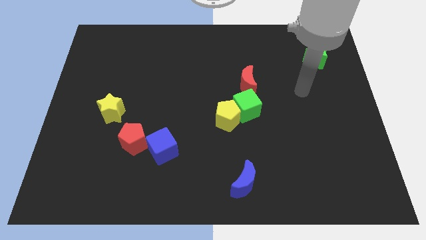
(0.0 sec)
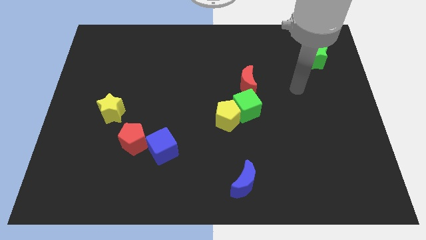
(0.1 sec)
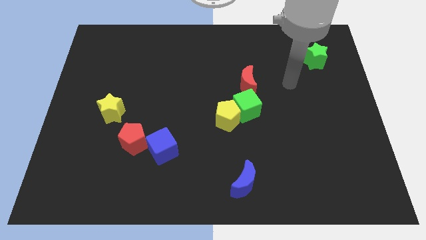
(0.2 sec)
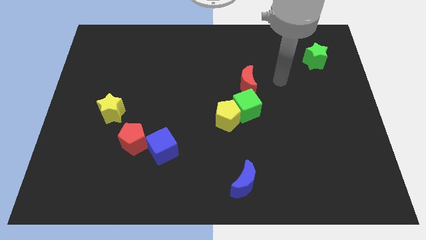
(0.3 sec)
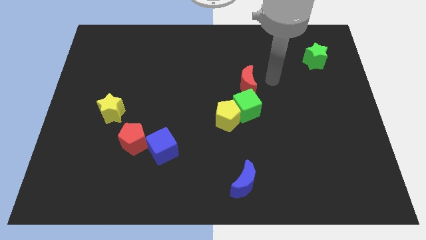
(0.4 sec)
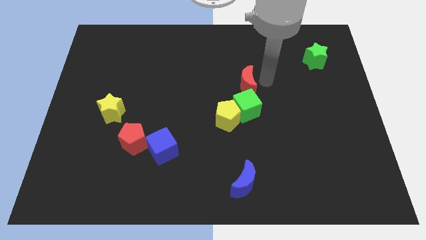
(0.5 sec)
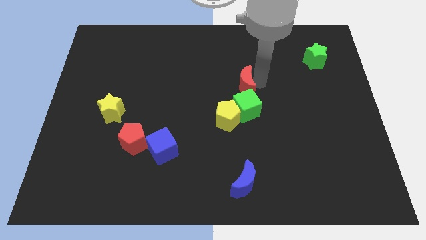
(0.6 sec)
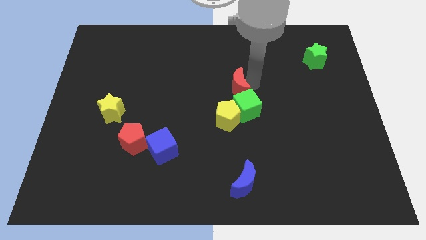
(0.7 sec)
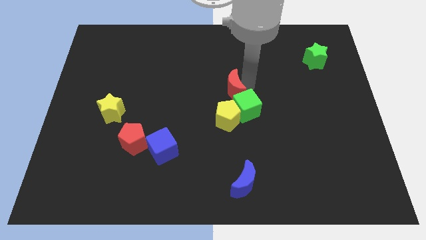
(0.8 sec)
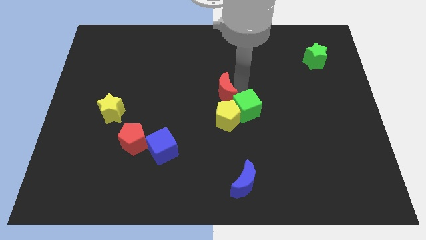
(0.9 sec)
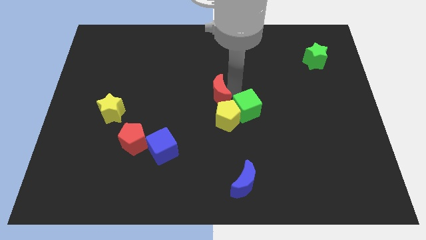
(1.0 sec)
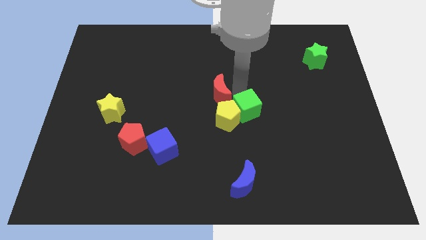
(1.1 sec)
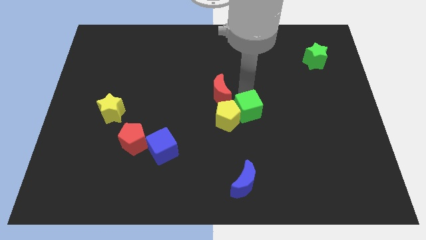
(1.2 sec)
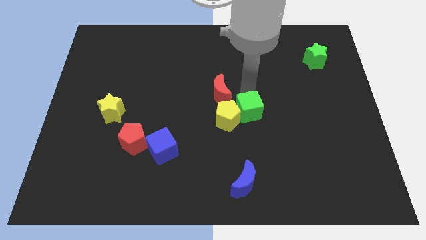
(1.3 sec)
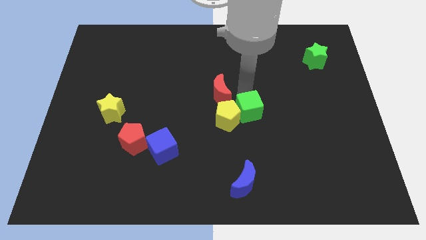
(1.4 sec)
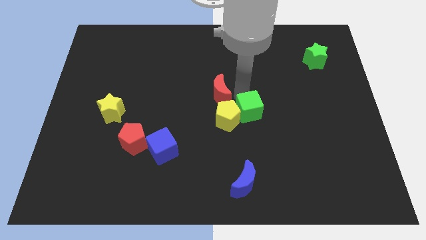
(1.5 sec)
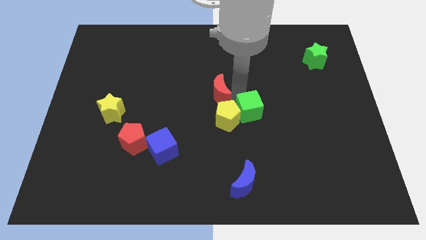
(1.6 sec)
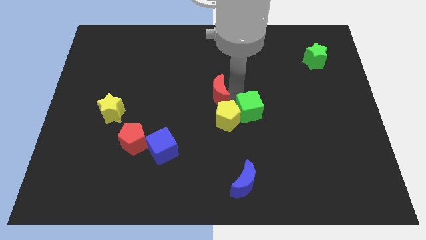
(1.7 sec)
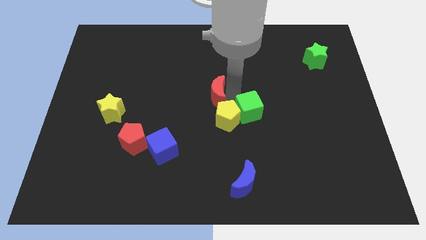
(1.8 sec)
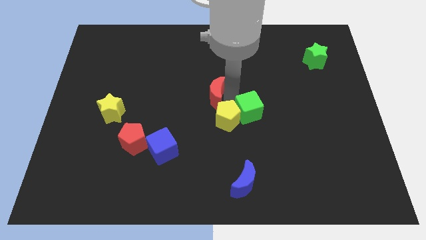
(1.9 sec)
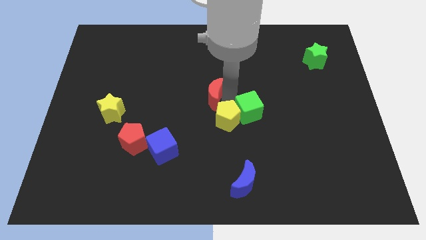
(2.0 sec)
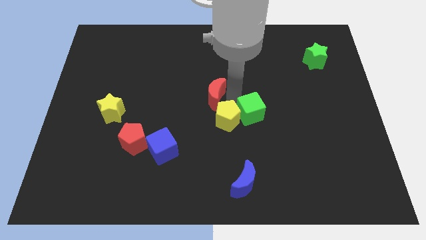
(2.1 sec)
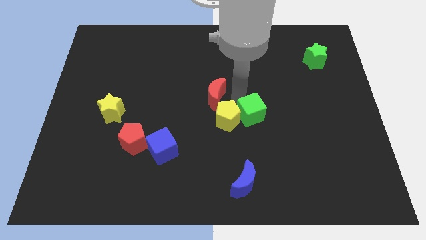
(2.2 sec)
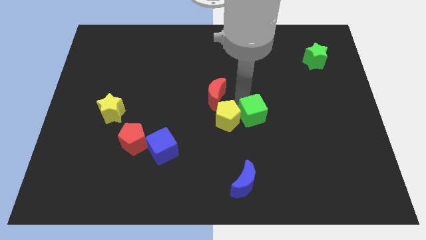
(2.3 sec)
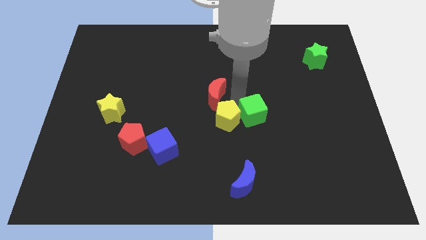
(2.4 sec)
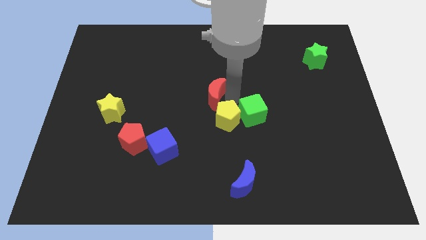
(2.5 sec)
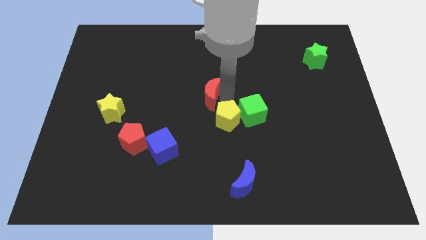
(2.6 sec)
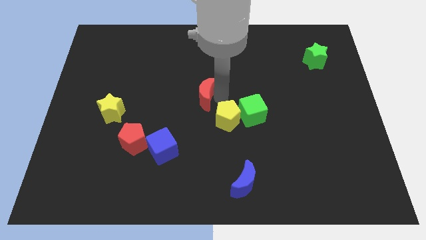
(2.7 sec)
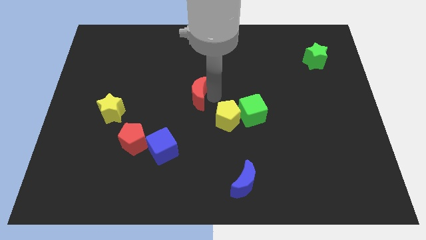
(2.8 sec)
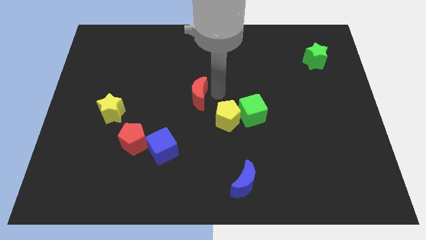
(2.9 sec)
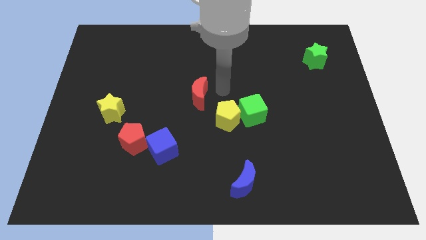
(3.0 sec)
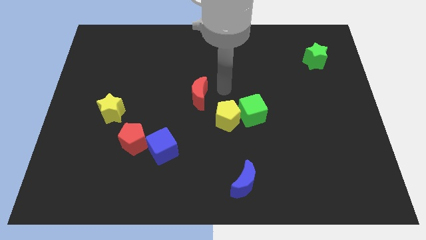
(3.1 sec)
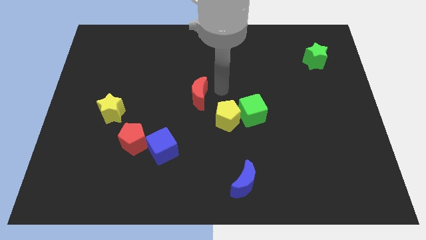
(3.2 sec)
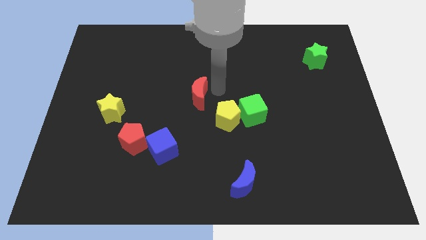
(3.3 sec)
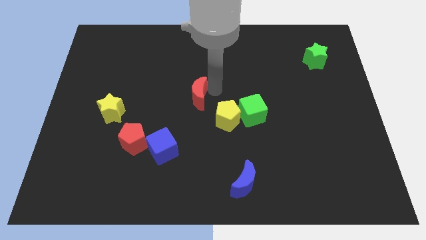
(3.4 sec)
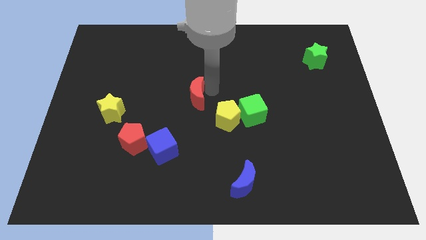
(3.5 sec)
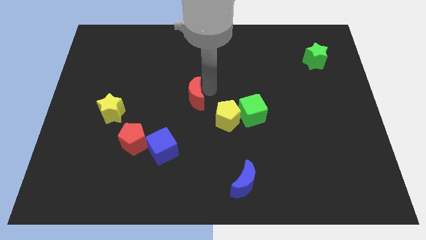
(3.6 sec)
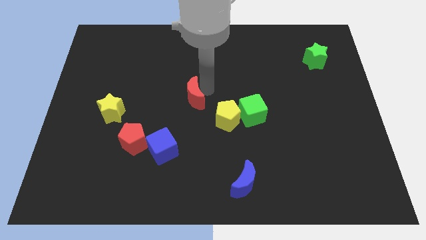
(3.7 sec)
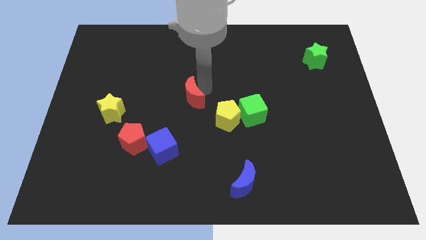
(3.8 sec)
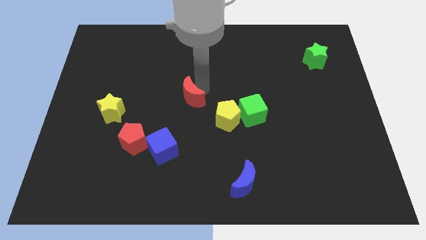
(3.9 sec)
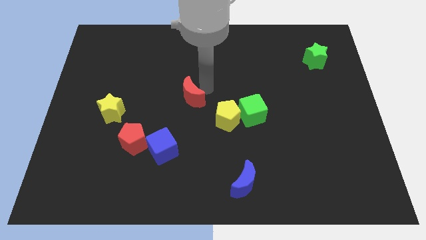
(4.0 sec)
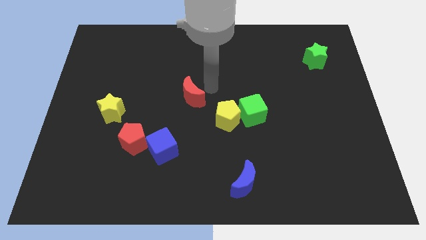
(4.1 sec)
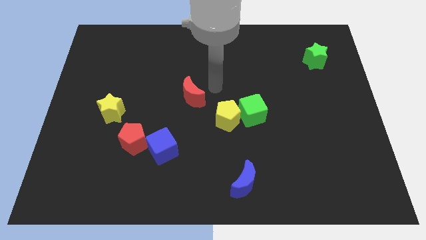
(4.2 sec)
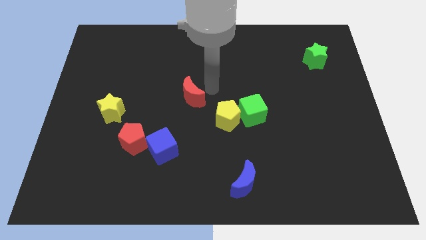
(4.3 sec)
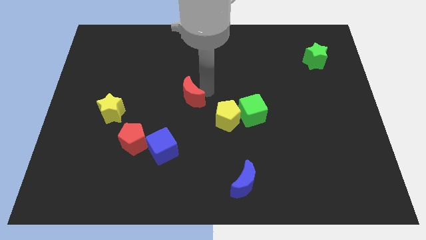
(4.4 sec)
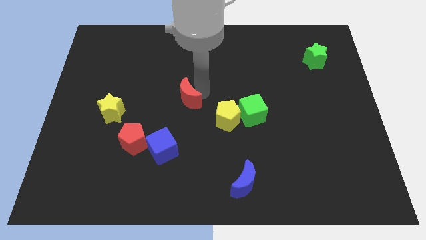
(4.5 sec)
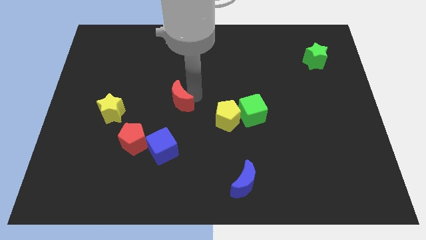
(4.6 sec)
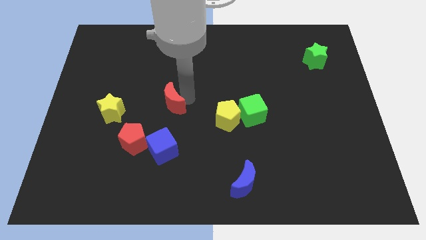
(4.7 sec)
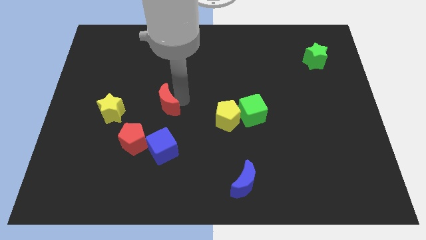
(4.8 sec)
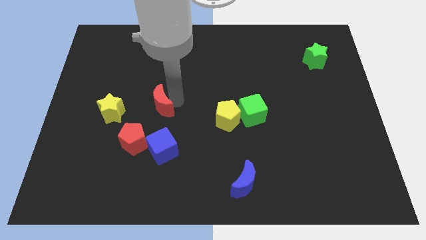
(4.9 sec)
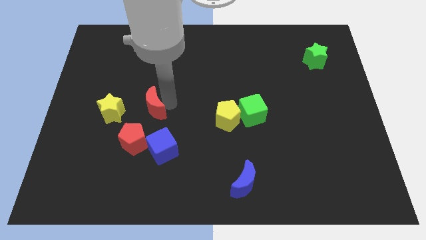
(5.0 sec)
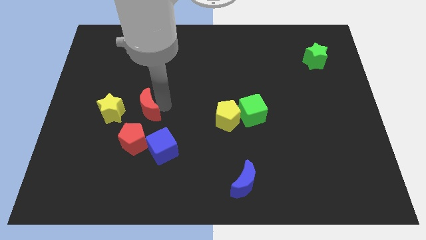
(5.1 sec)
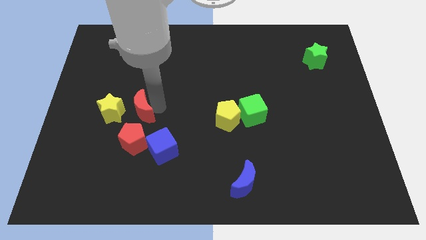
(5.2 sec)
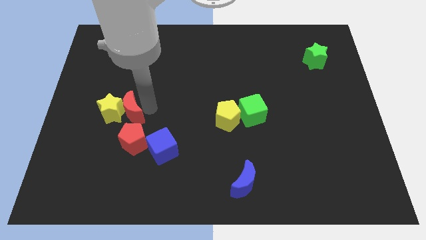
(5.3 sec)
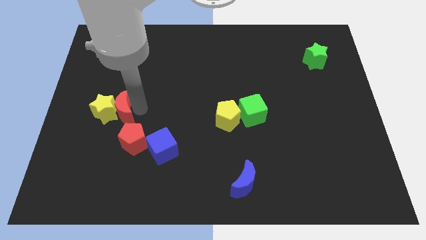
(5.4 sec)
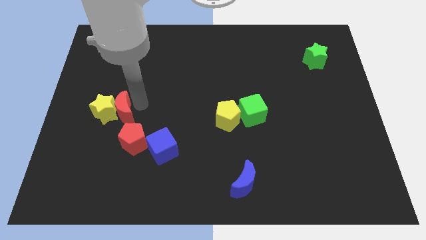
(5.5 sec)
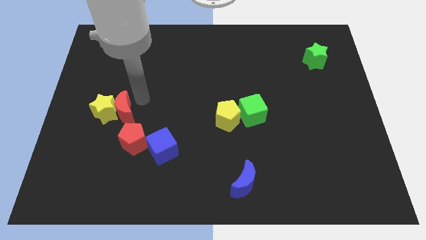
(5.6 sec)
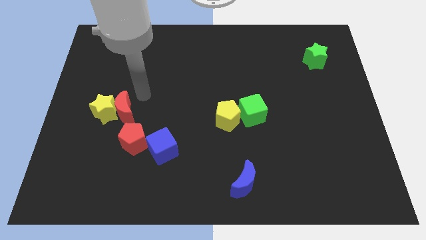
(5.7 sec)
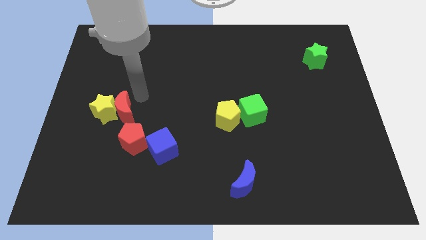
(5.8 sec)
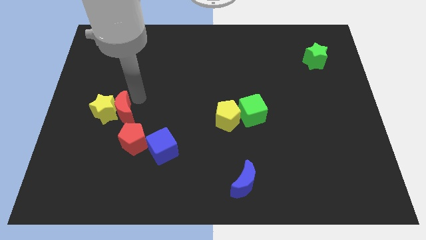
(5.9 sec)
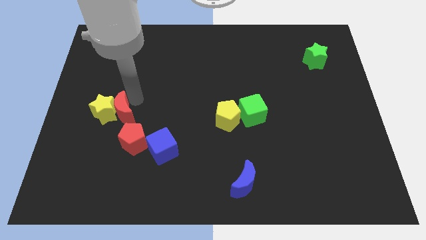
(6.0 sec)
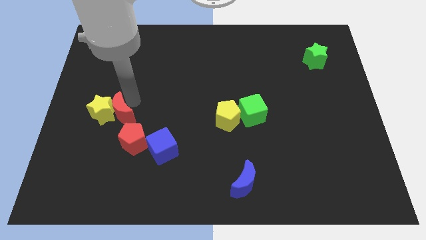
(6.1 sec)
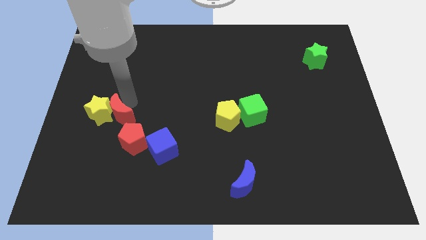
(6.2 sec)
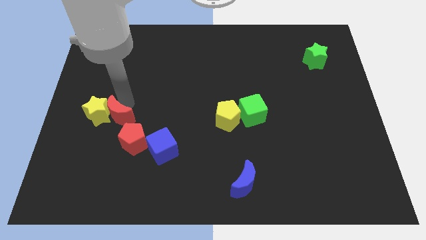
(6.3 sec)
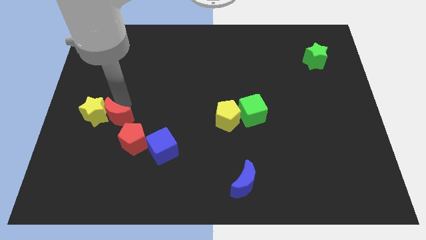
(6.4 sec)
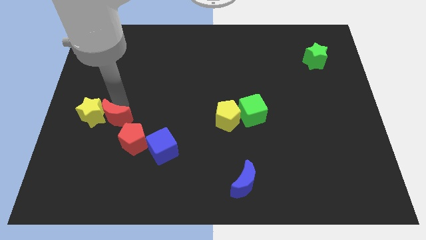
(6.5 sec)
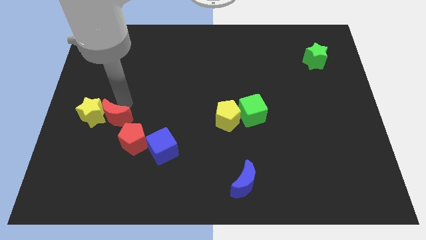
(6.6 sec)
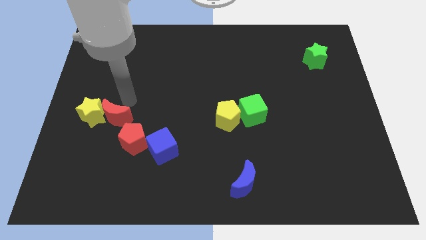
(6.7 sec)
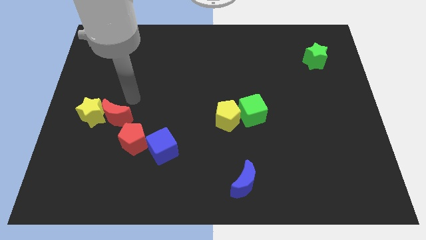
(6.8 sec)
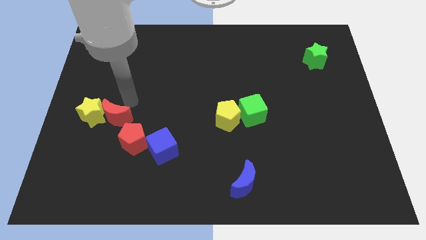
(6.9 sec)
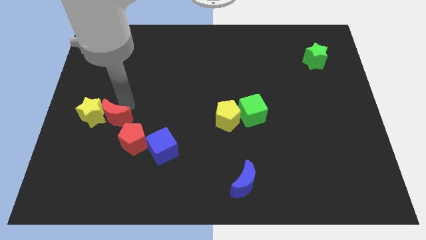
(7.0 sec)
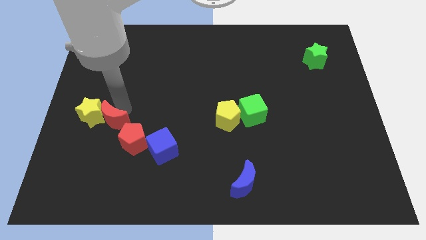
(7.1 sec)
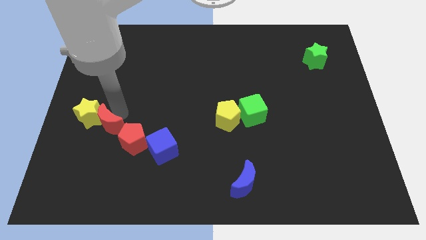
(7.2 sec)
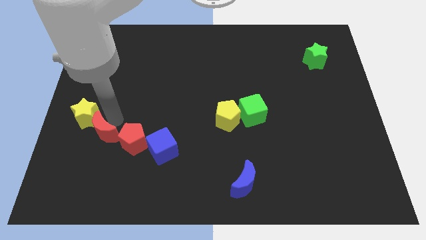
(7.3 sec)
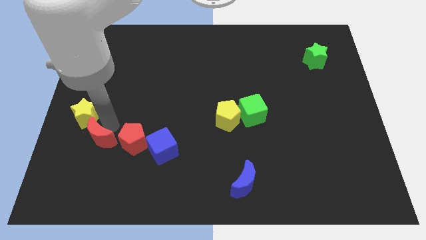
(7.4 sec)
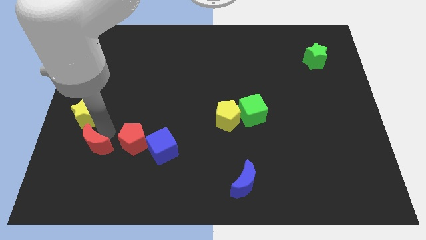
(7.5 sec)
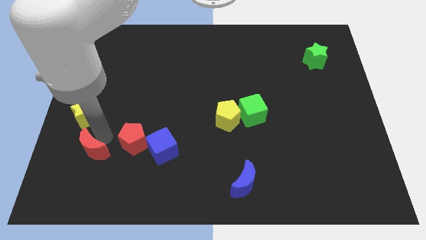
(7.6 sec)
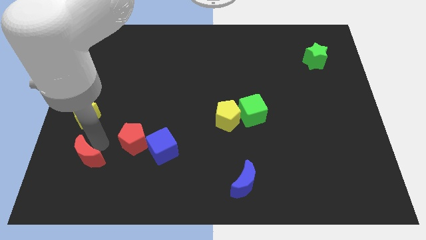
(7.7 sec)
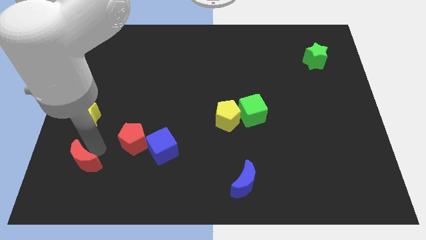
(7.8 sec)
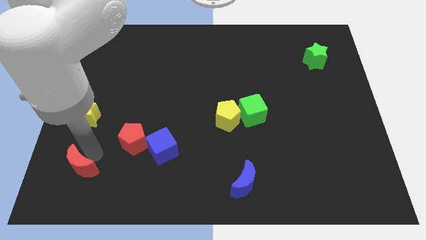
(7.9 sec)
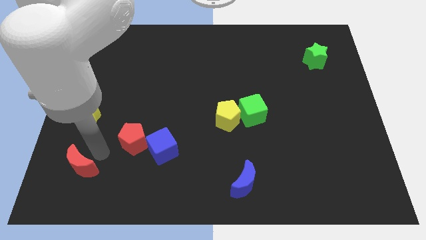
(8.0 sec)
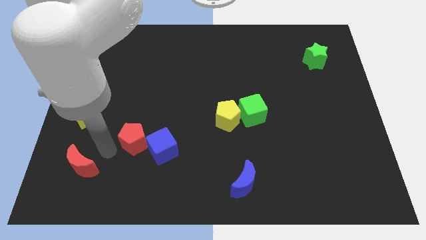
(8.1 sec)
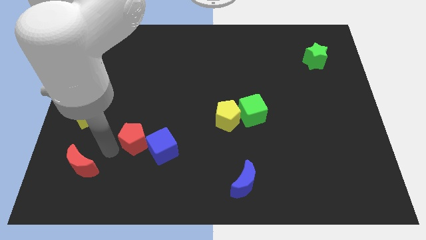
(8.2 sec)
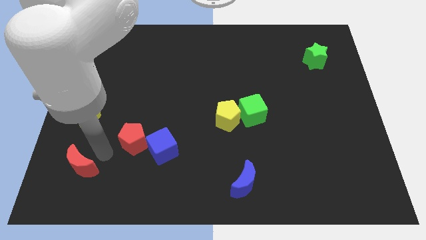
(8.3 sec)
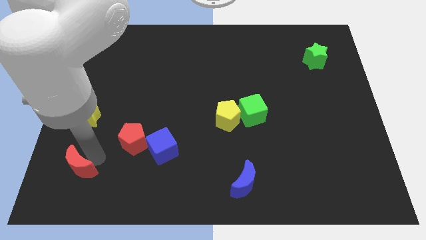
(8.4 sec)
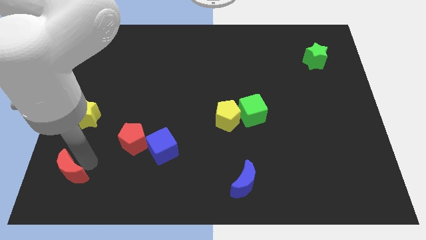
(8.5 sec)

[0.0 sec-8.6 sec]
move the red moon to the lower left corner
